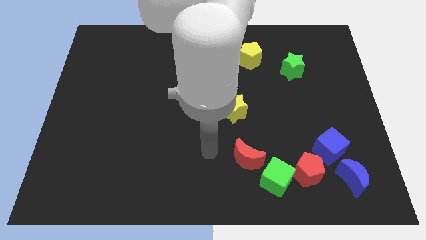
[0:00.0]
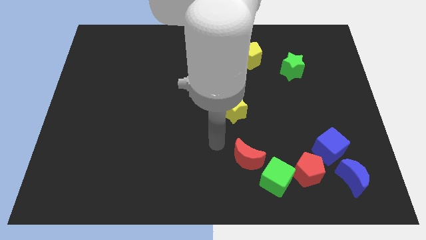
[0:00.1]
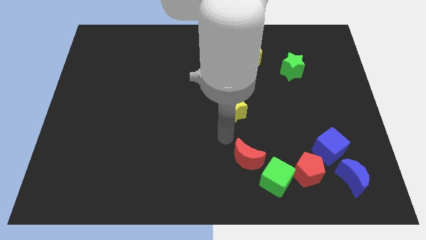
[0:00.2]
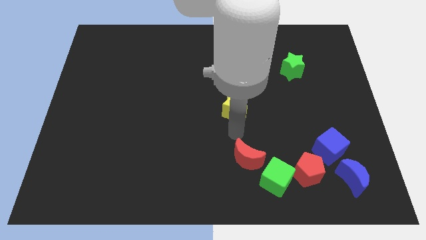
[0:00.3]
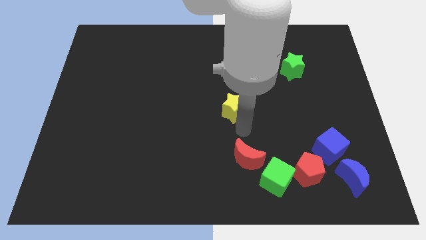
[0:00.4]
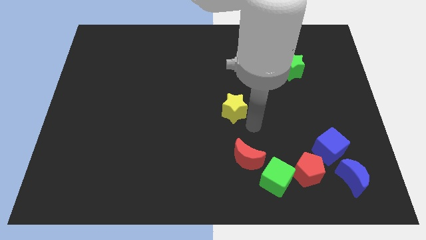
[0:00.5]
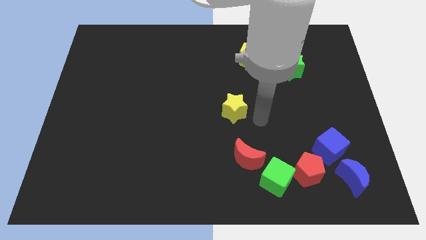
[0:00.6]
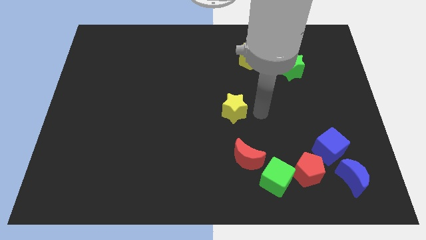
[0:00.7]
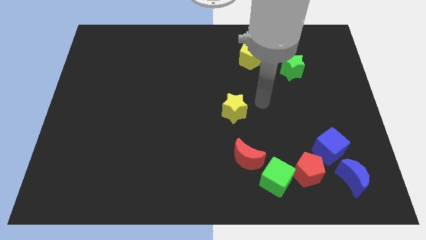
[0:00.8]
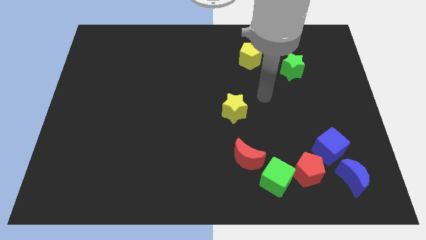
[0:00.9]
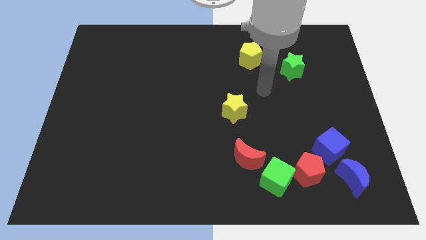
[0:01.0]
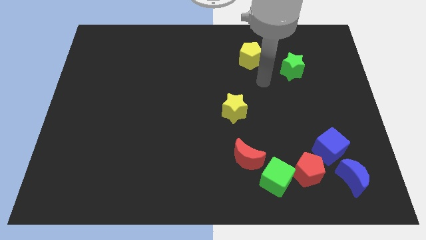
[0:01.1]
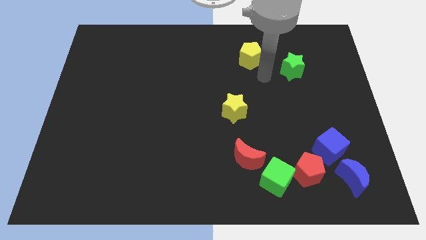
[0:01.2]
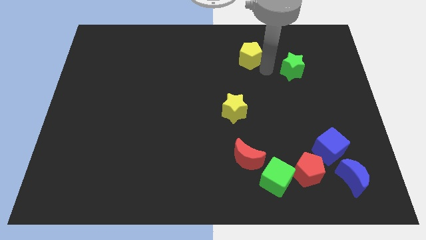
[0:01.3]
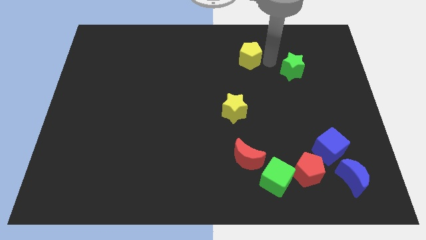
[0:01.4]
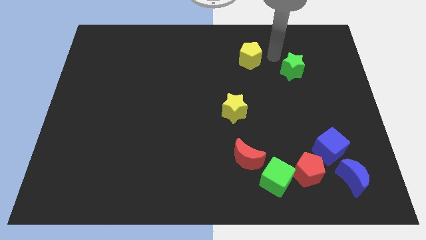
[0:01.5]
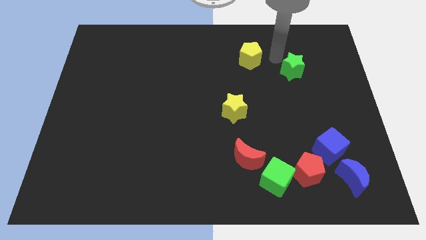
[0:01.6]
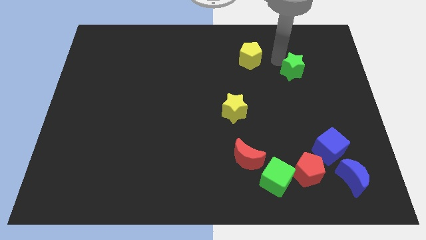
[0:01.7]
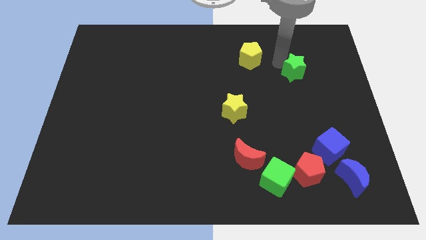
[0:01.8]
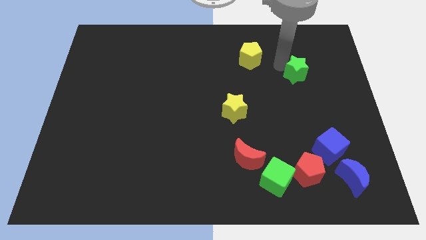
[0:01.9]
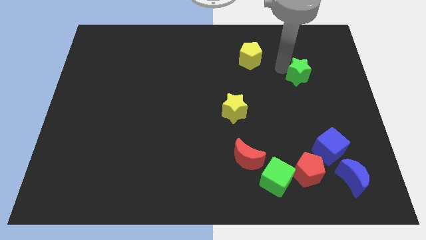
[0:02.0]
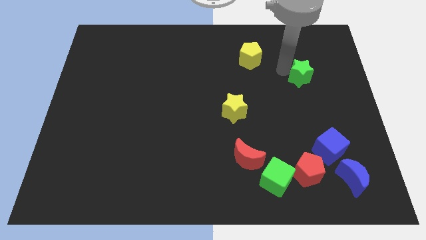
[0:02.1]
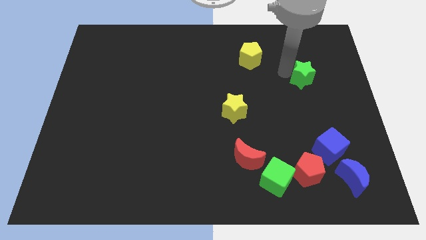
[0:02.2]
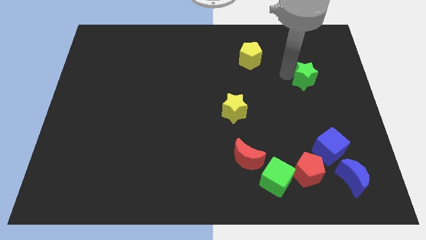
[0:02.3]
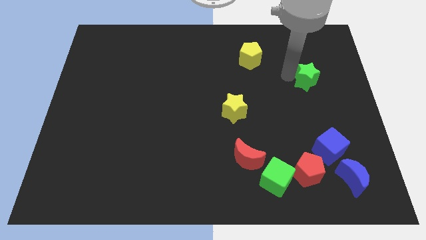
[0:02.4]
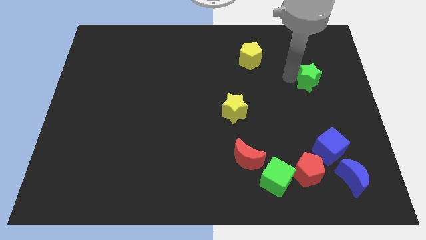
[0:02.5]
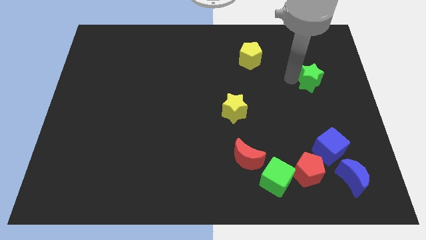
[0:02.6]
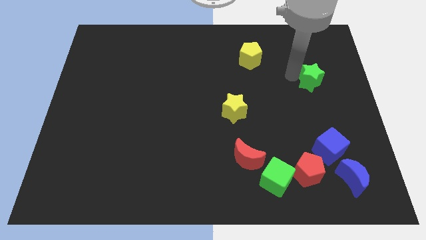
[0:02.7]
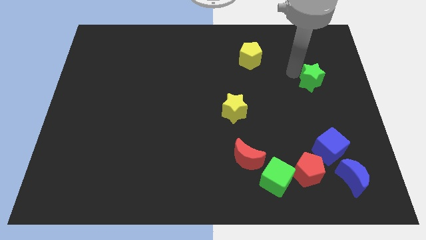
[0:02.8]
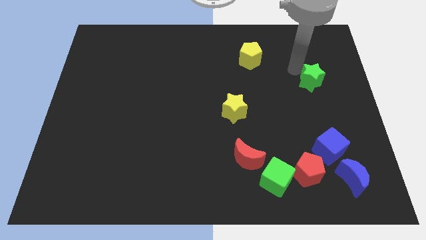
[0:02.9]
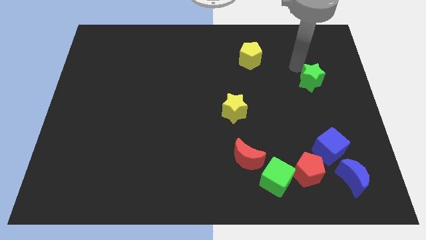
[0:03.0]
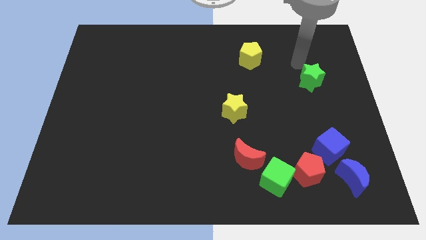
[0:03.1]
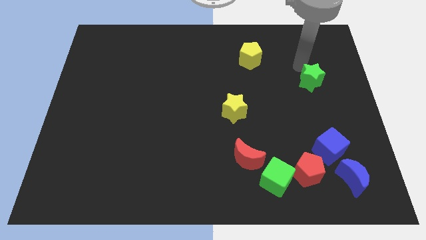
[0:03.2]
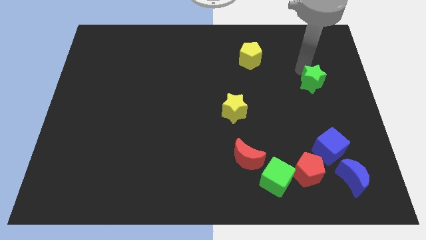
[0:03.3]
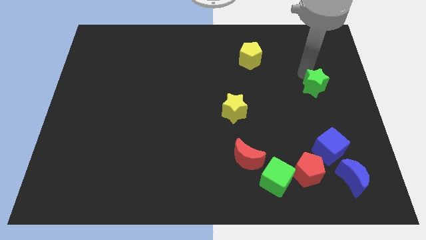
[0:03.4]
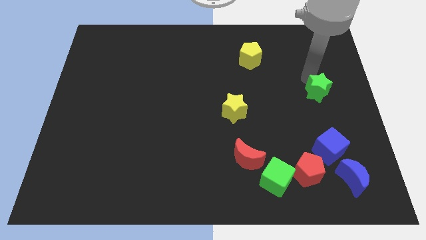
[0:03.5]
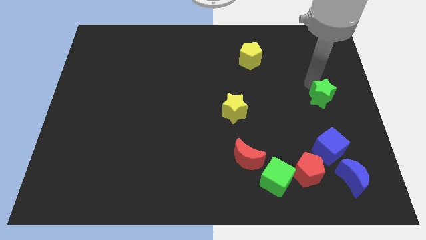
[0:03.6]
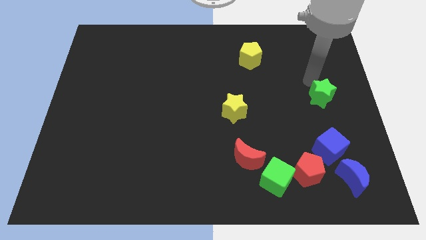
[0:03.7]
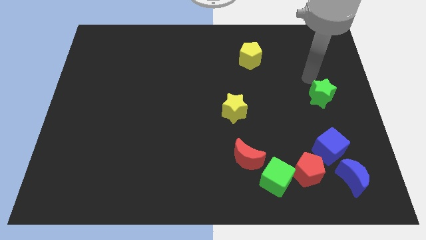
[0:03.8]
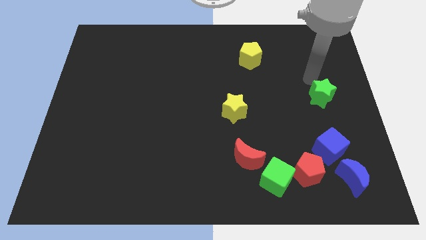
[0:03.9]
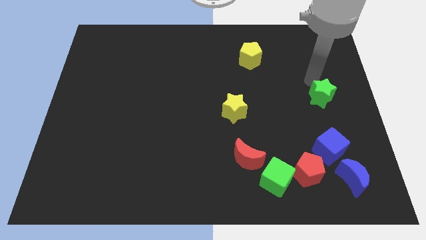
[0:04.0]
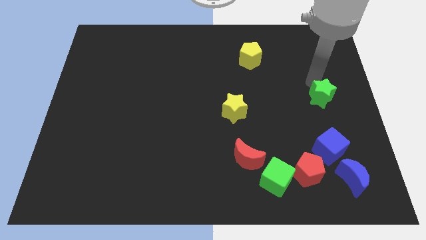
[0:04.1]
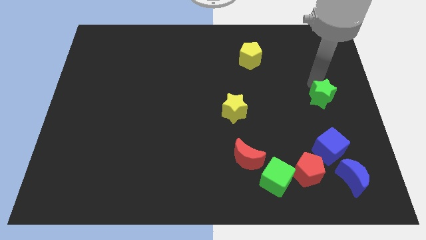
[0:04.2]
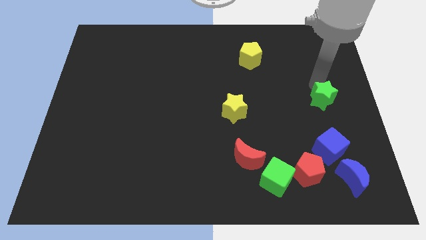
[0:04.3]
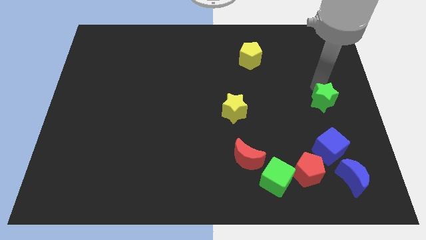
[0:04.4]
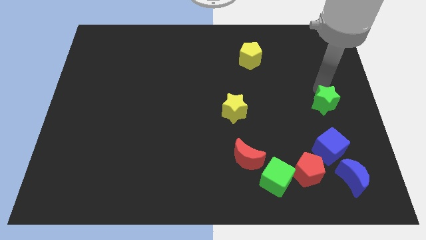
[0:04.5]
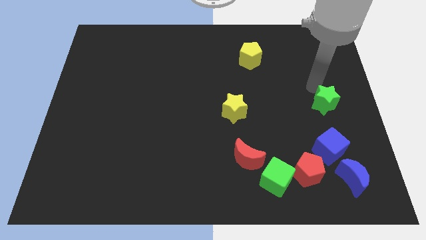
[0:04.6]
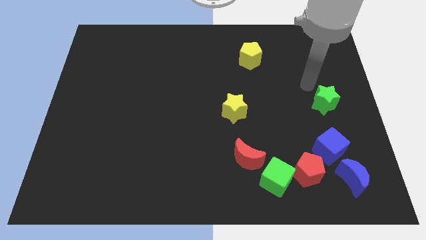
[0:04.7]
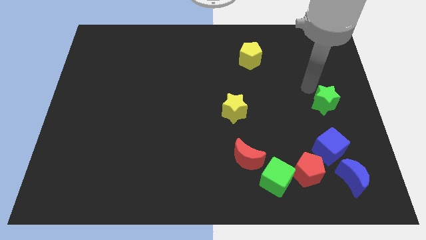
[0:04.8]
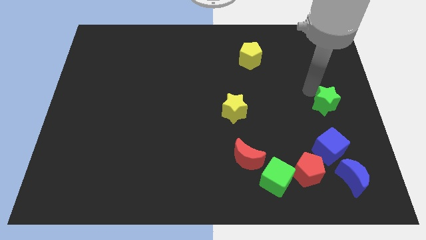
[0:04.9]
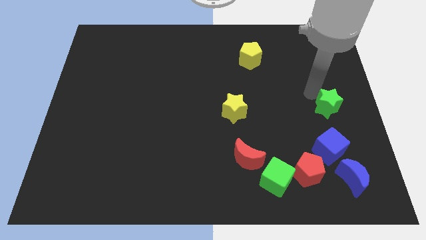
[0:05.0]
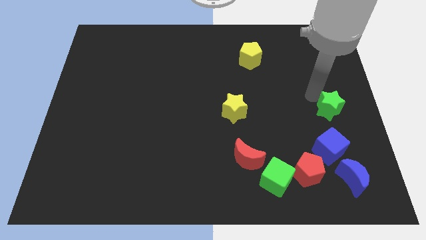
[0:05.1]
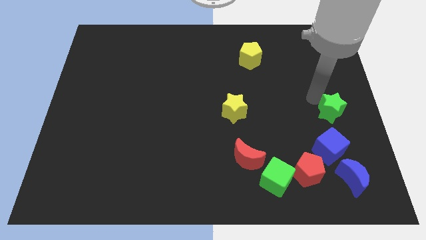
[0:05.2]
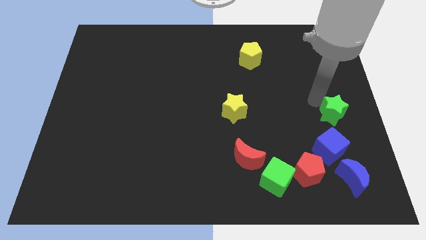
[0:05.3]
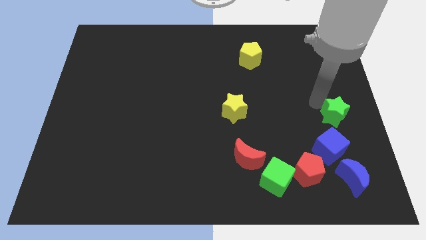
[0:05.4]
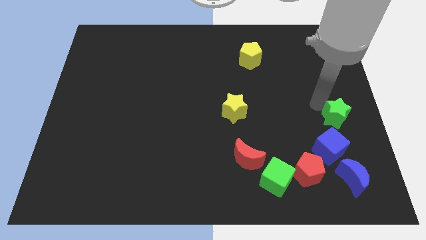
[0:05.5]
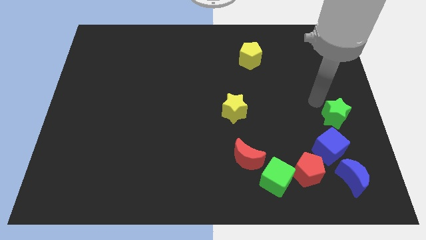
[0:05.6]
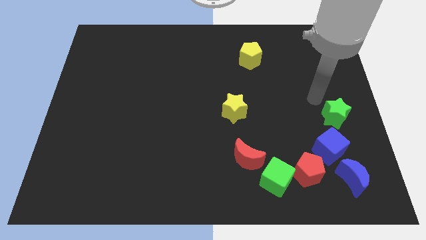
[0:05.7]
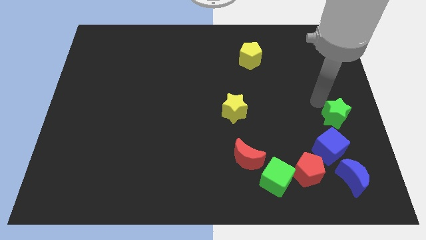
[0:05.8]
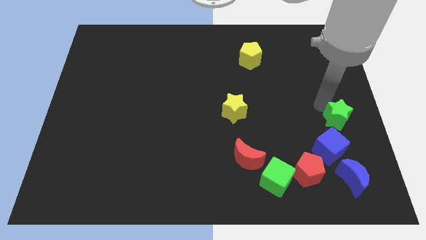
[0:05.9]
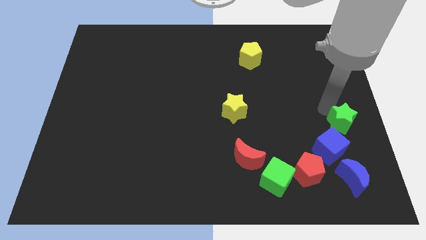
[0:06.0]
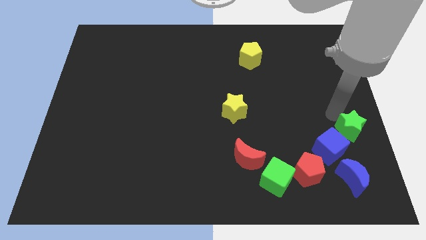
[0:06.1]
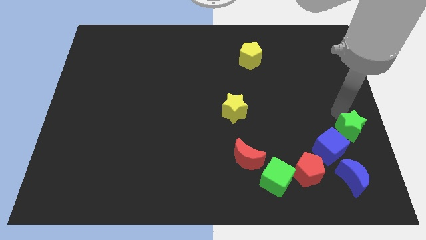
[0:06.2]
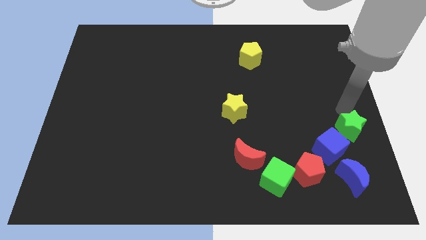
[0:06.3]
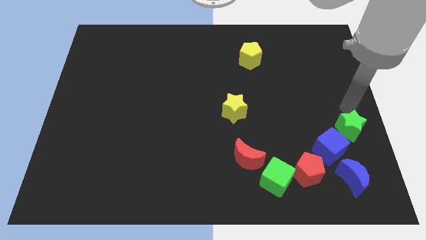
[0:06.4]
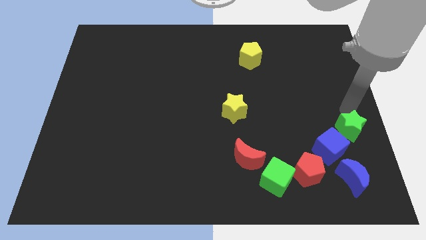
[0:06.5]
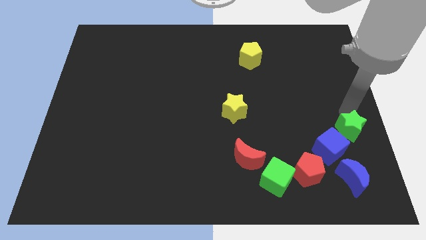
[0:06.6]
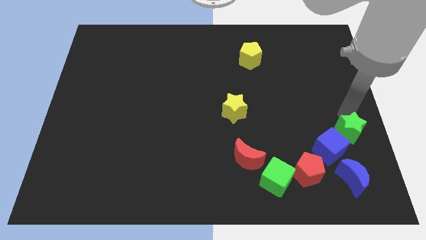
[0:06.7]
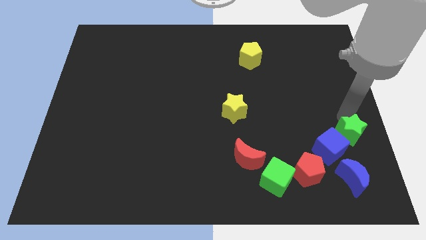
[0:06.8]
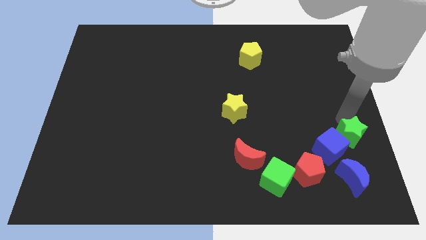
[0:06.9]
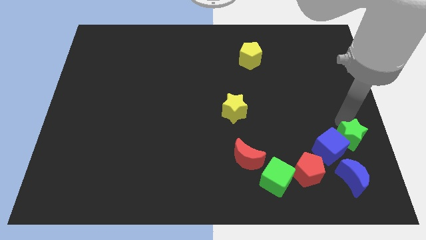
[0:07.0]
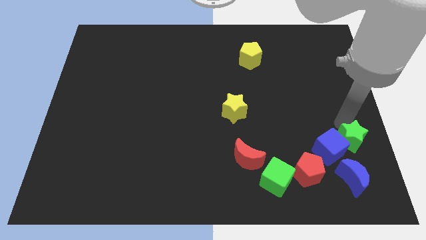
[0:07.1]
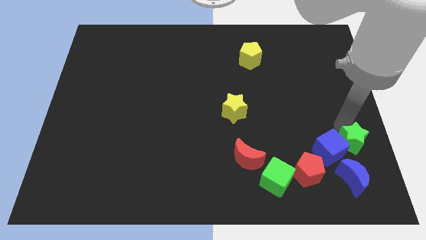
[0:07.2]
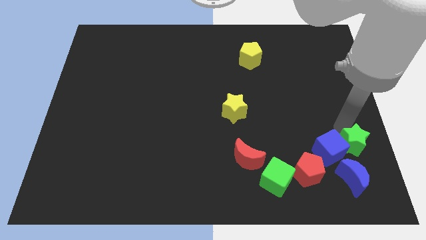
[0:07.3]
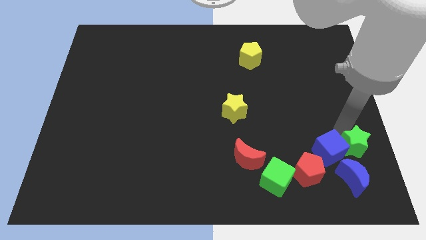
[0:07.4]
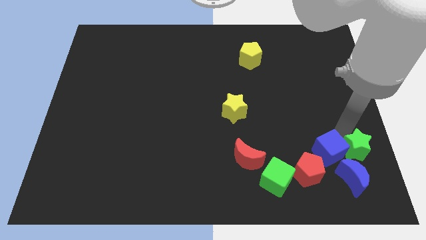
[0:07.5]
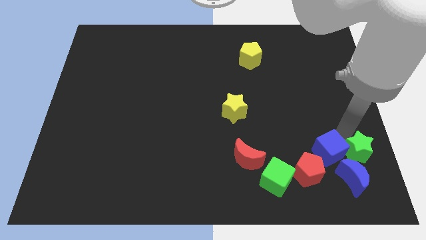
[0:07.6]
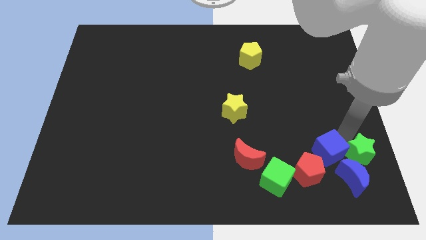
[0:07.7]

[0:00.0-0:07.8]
slide the green star towards the blue moon

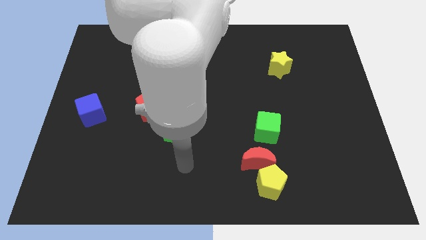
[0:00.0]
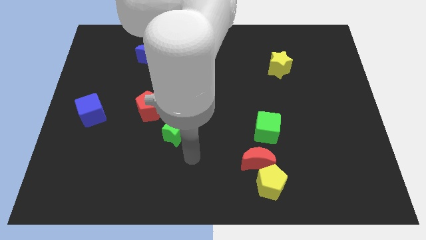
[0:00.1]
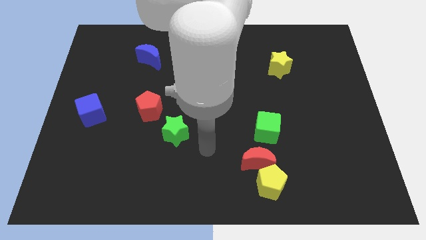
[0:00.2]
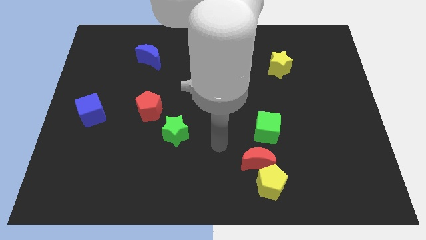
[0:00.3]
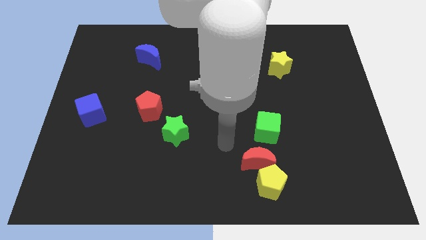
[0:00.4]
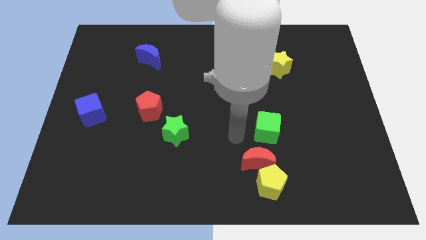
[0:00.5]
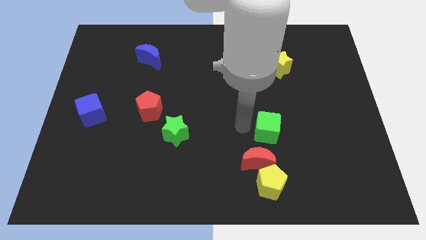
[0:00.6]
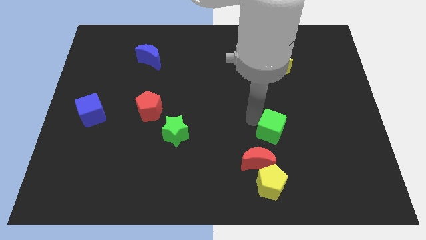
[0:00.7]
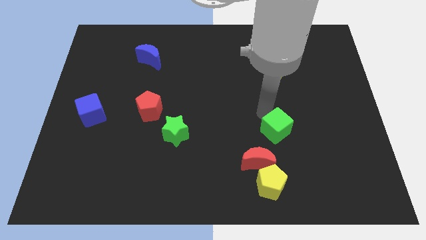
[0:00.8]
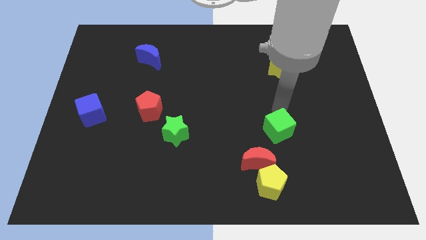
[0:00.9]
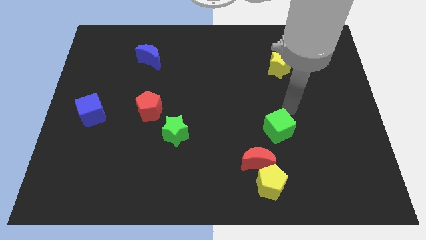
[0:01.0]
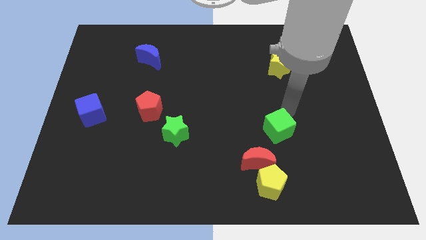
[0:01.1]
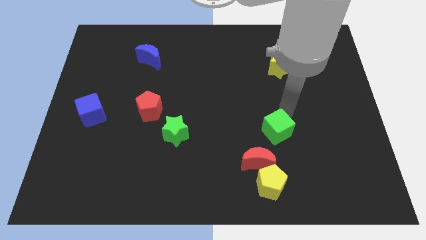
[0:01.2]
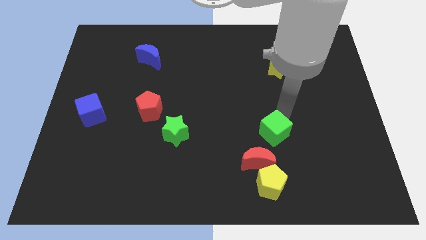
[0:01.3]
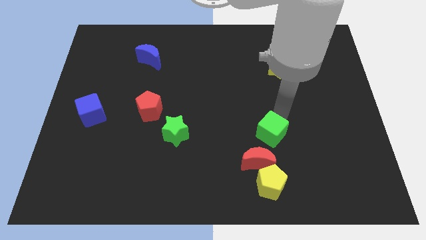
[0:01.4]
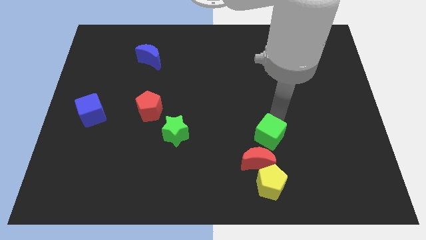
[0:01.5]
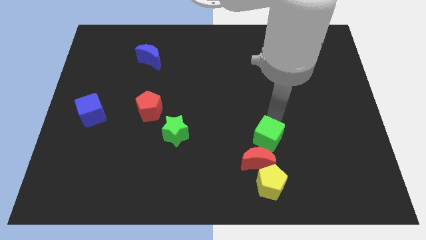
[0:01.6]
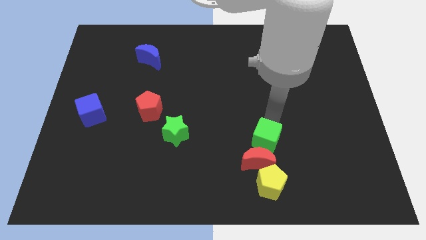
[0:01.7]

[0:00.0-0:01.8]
slide the green cube close to the red moon
